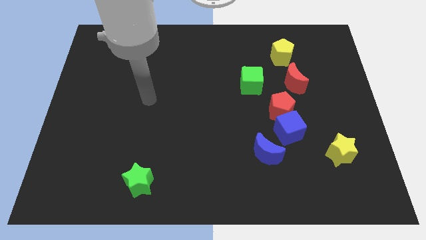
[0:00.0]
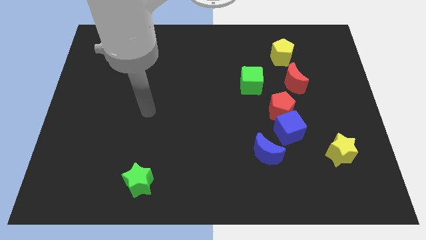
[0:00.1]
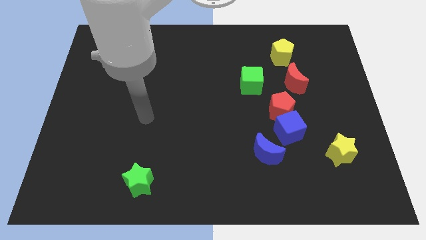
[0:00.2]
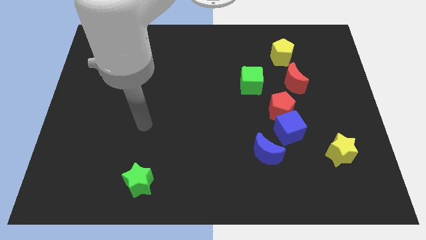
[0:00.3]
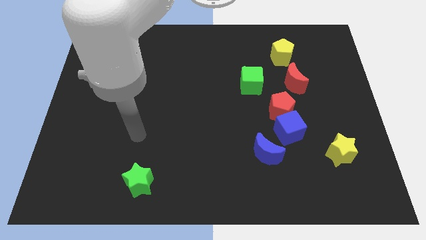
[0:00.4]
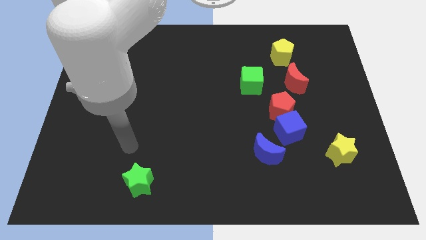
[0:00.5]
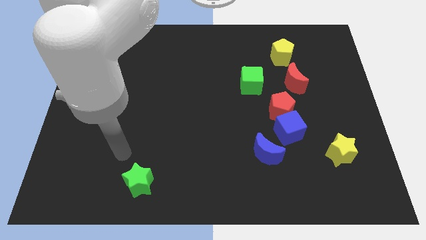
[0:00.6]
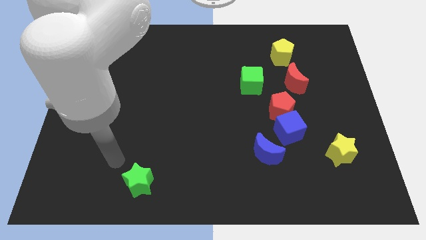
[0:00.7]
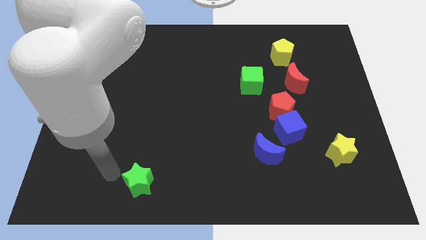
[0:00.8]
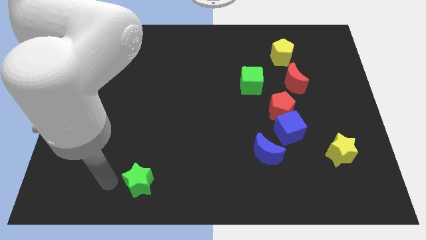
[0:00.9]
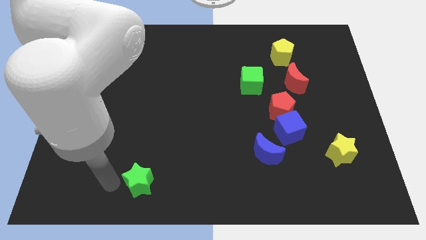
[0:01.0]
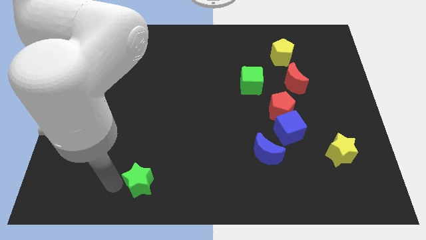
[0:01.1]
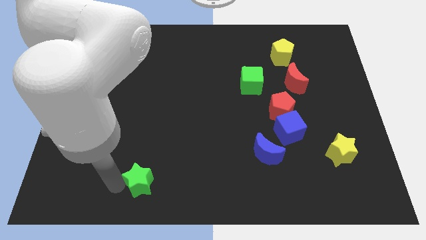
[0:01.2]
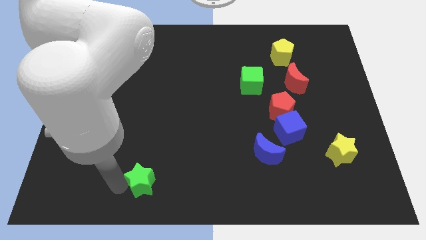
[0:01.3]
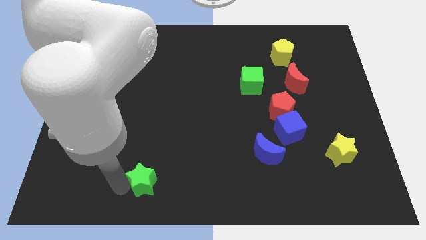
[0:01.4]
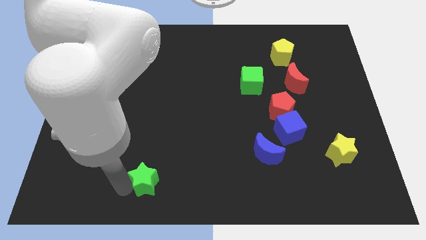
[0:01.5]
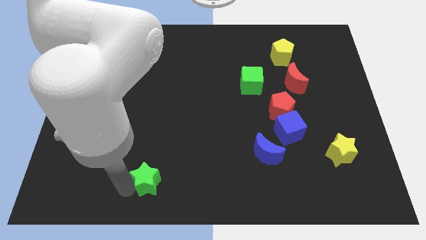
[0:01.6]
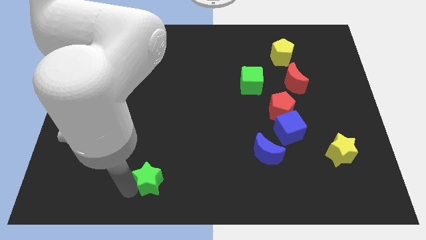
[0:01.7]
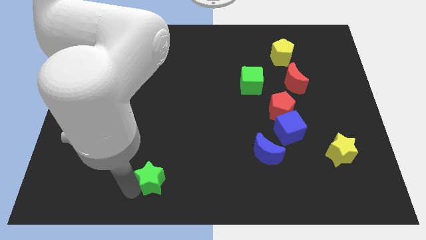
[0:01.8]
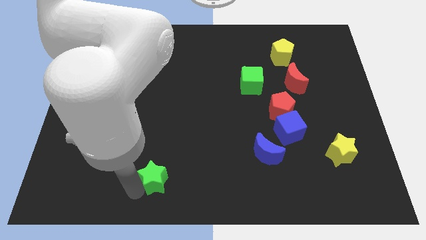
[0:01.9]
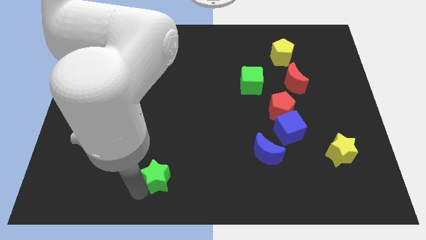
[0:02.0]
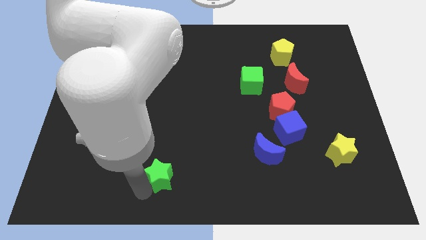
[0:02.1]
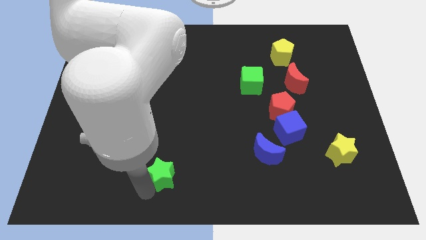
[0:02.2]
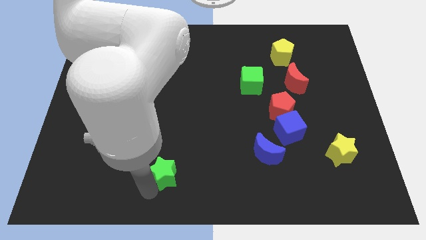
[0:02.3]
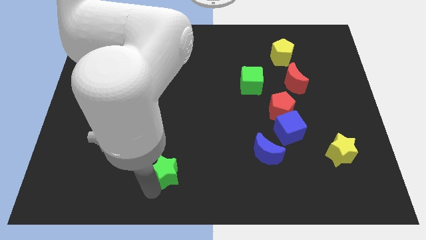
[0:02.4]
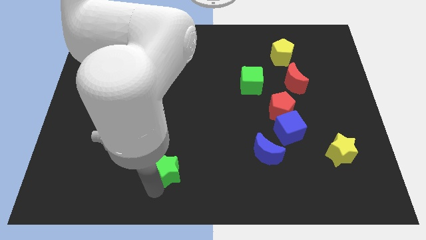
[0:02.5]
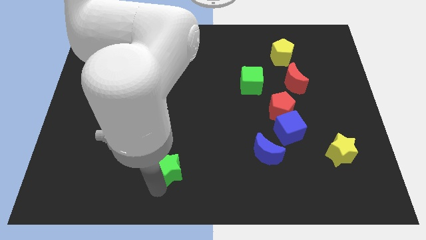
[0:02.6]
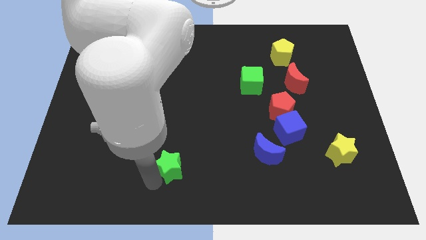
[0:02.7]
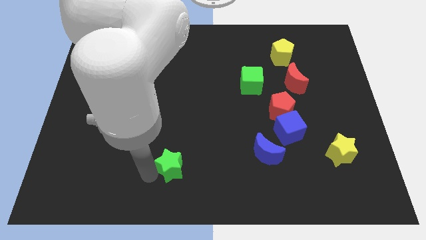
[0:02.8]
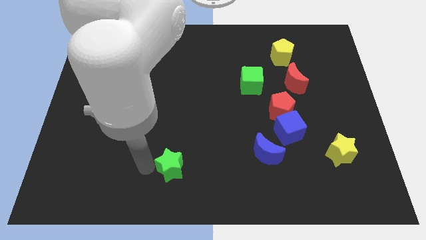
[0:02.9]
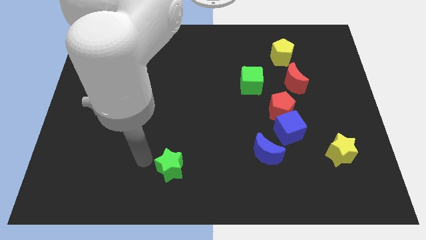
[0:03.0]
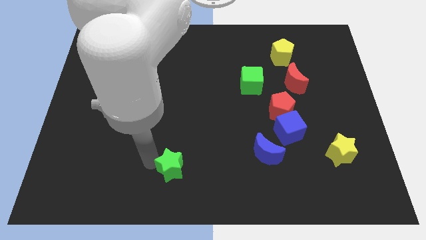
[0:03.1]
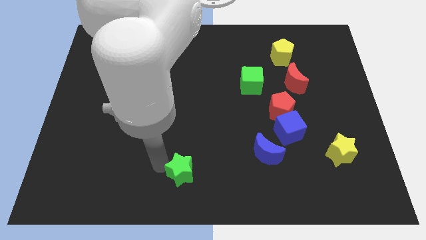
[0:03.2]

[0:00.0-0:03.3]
slightly push the green star to the right

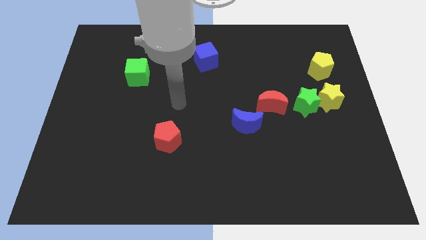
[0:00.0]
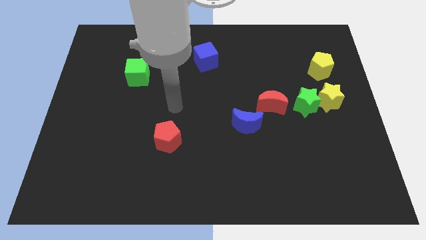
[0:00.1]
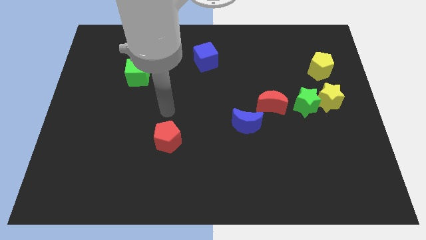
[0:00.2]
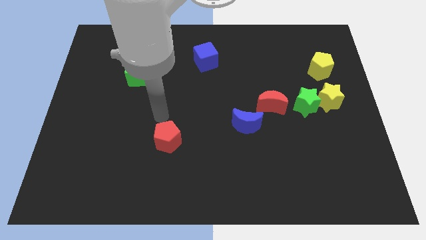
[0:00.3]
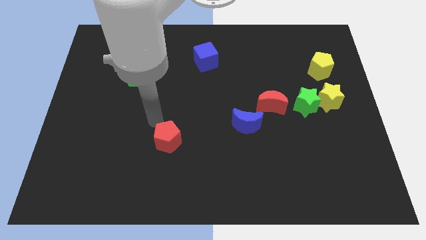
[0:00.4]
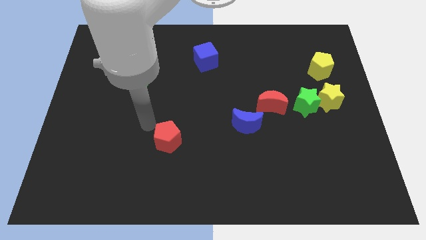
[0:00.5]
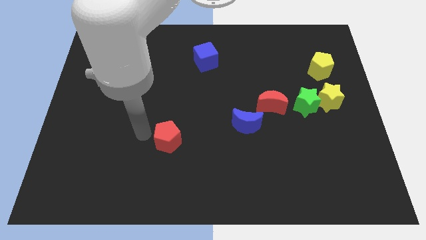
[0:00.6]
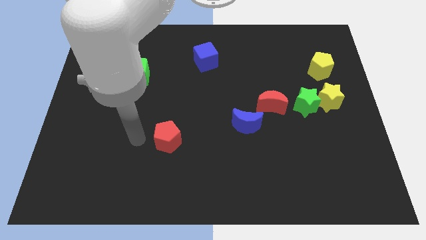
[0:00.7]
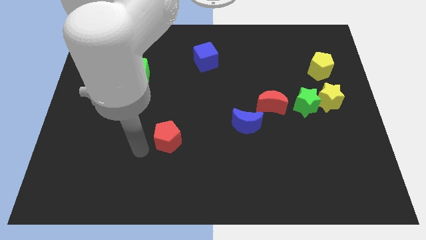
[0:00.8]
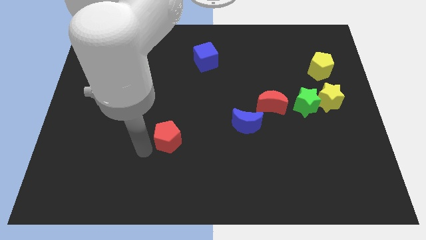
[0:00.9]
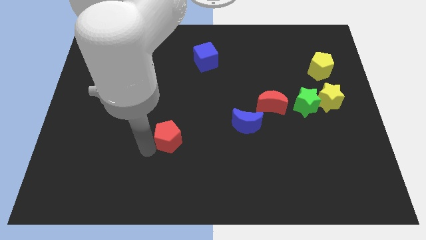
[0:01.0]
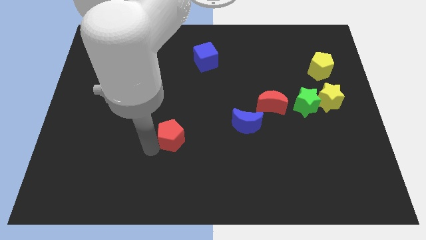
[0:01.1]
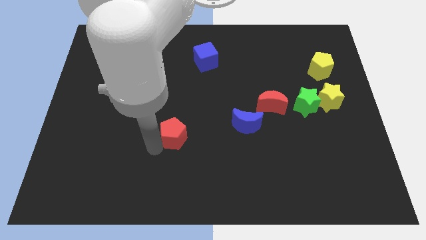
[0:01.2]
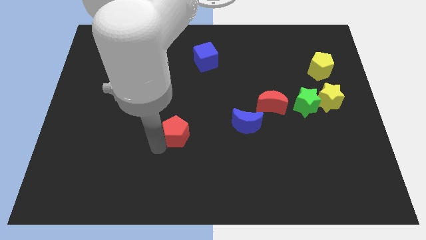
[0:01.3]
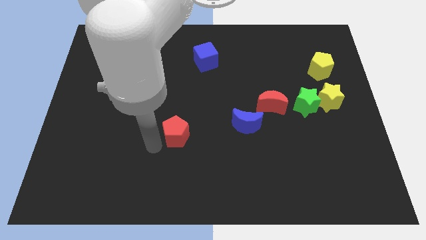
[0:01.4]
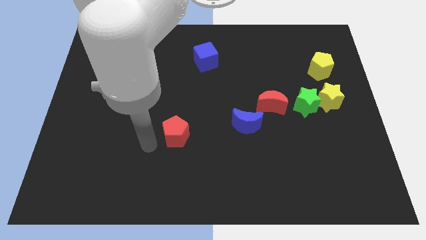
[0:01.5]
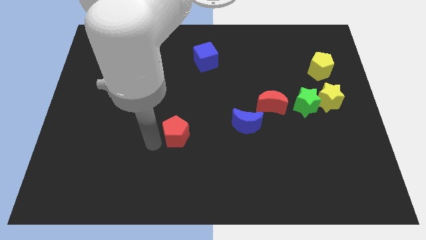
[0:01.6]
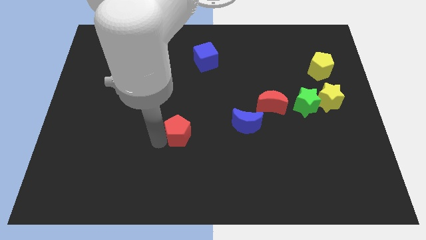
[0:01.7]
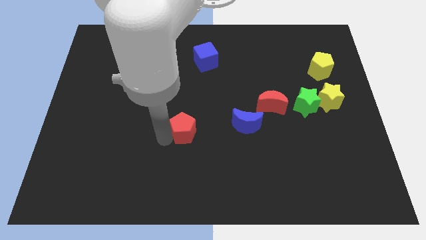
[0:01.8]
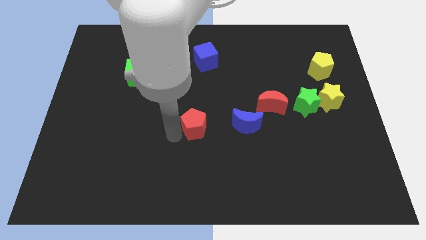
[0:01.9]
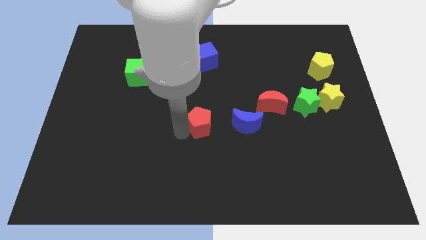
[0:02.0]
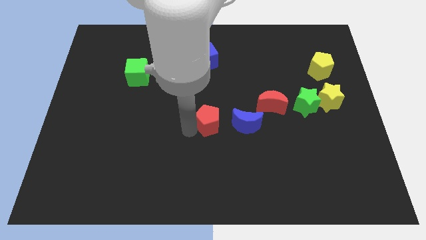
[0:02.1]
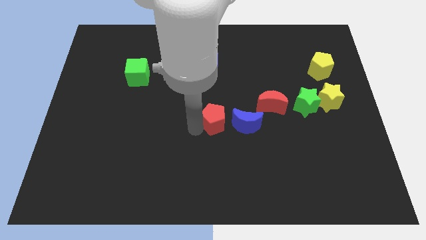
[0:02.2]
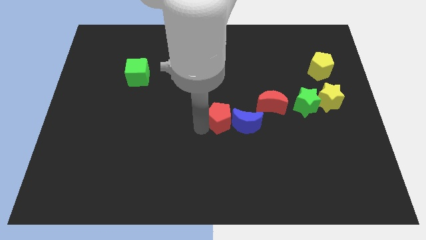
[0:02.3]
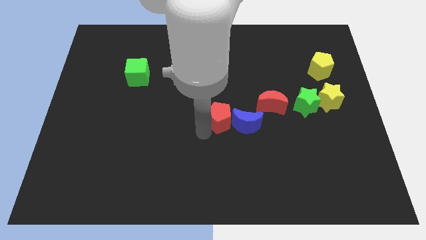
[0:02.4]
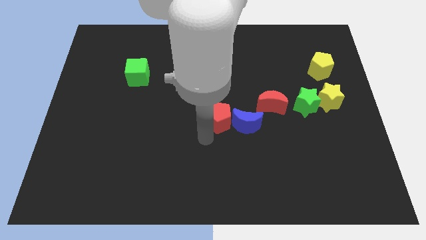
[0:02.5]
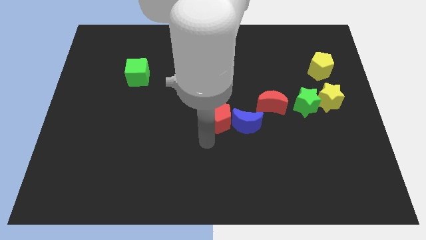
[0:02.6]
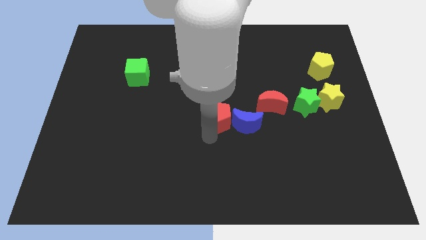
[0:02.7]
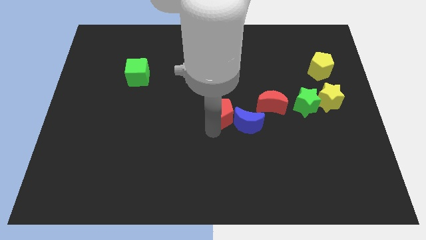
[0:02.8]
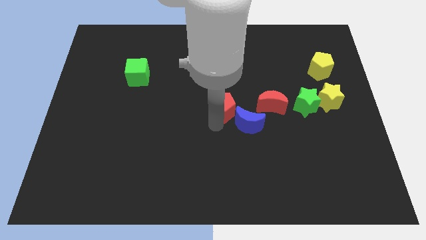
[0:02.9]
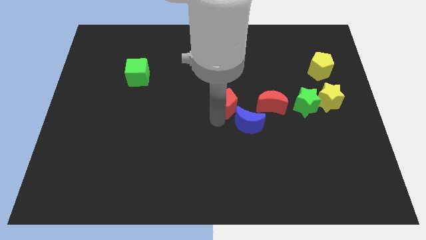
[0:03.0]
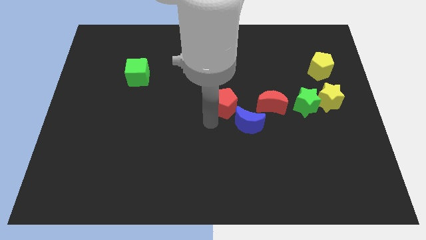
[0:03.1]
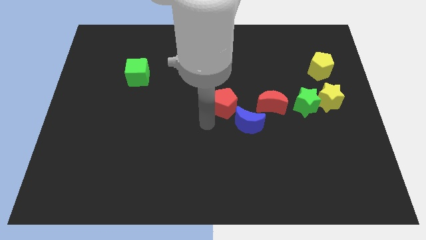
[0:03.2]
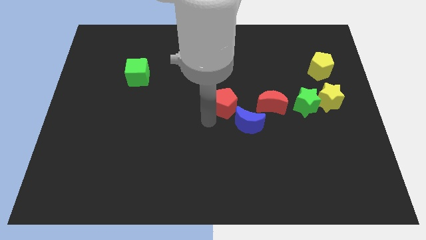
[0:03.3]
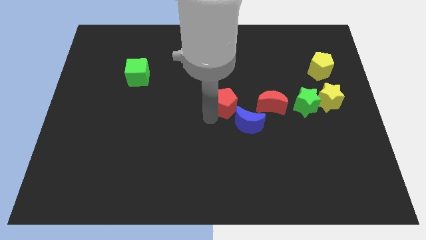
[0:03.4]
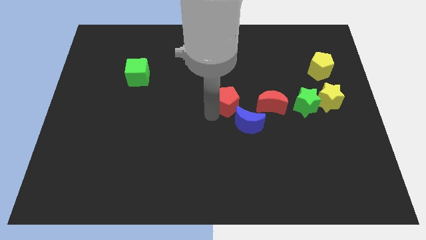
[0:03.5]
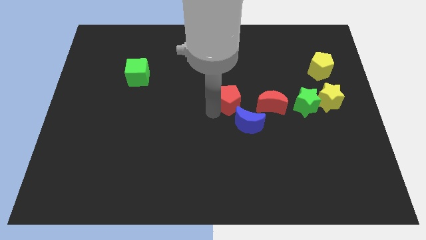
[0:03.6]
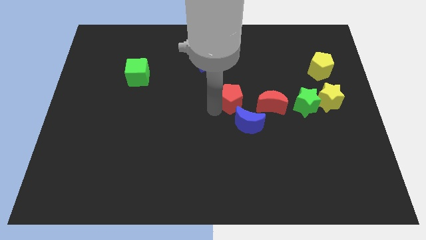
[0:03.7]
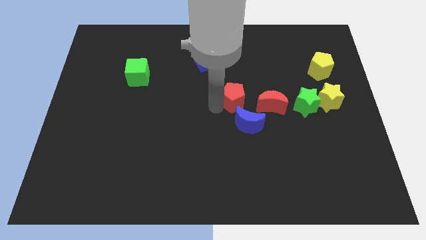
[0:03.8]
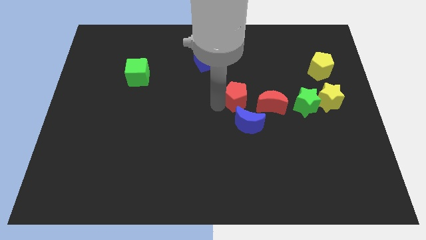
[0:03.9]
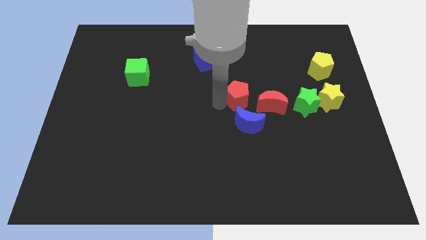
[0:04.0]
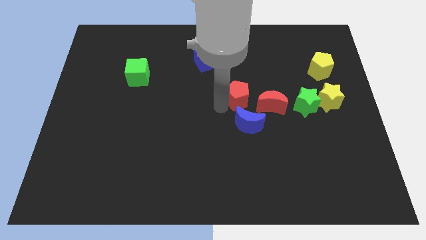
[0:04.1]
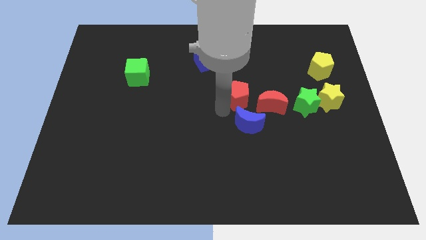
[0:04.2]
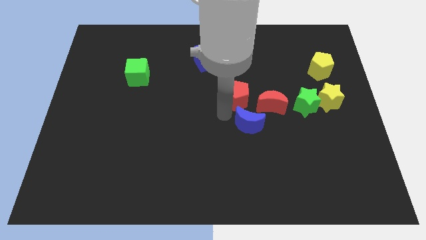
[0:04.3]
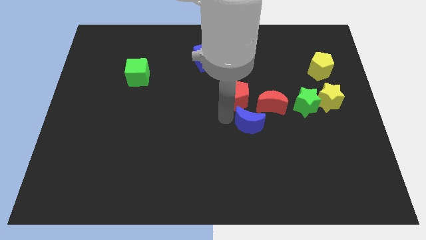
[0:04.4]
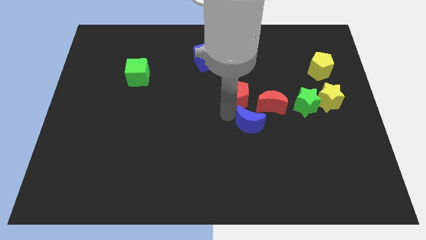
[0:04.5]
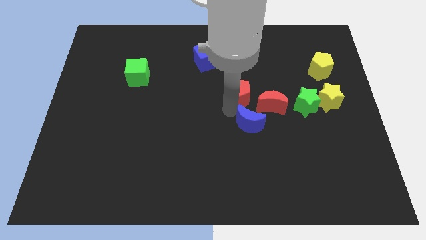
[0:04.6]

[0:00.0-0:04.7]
slide the red pentagon up and to the right diagonally

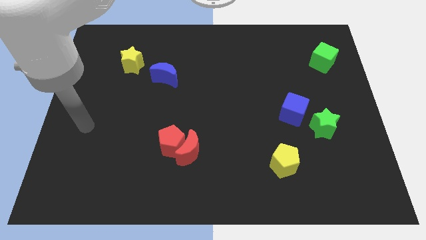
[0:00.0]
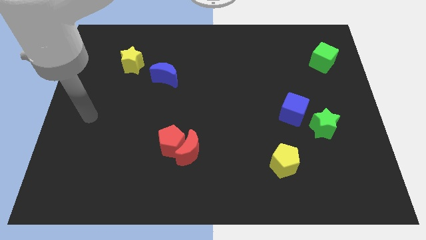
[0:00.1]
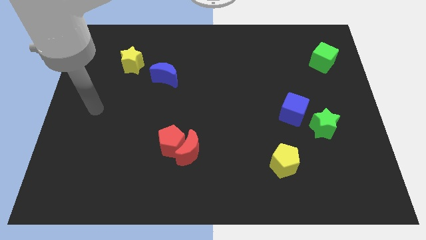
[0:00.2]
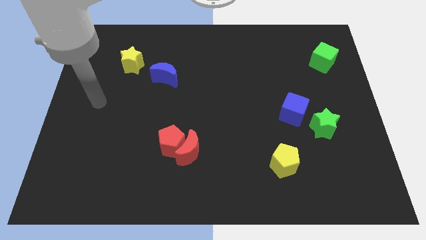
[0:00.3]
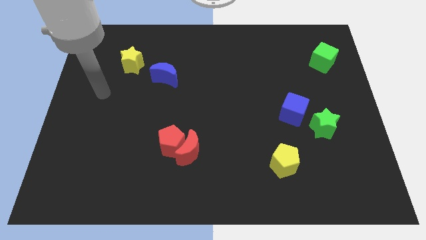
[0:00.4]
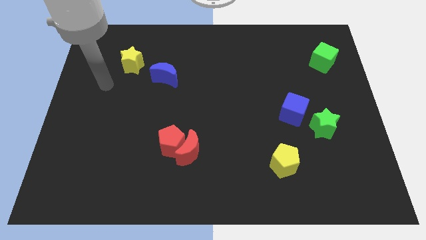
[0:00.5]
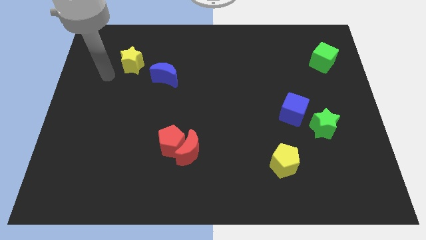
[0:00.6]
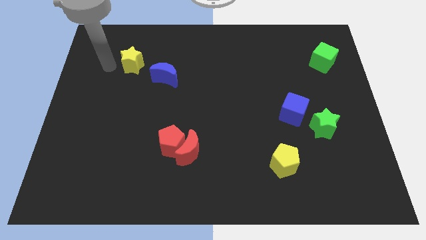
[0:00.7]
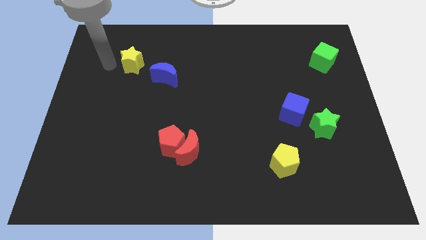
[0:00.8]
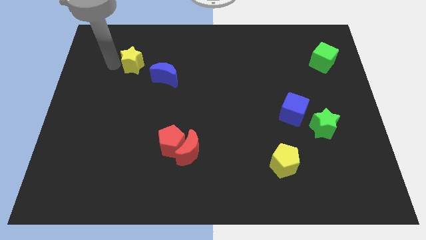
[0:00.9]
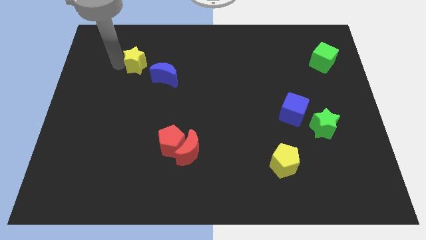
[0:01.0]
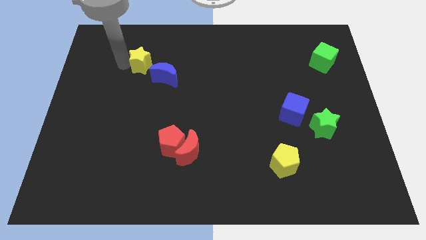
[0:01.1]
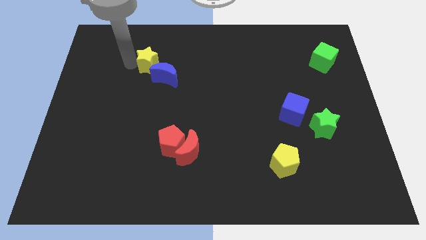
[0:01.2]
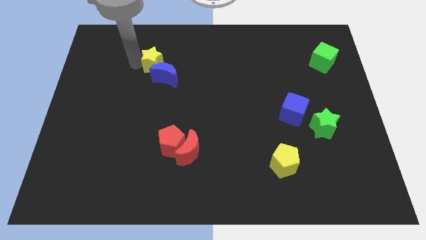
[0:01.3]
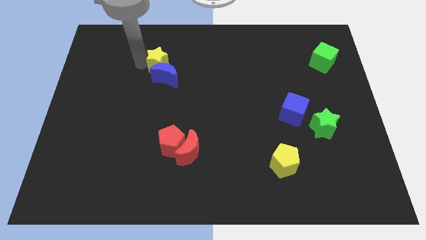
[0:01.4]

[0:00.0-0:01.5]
slide the yellow star to the right a little bit
